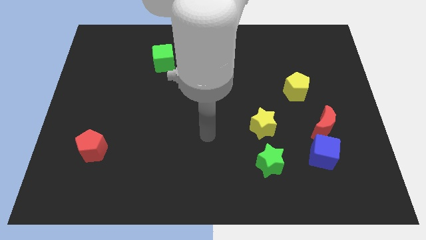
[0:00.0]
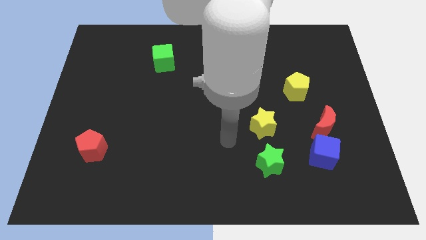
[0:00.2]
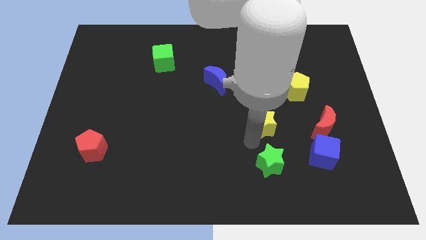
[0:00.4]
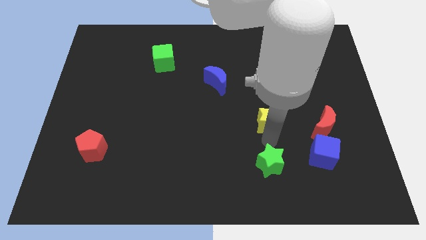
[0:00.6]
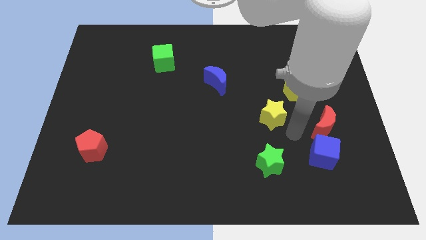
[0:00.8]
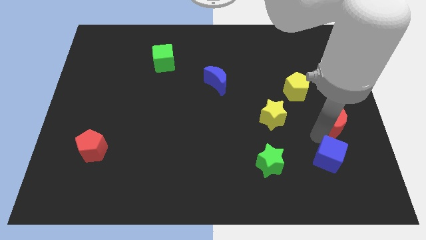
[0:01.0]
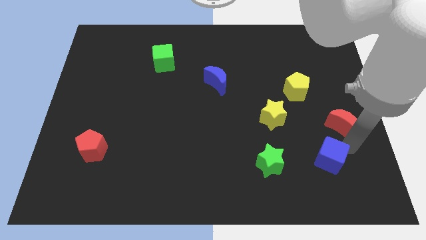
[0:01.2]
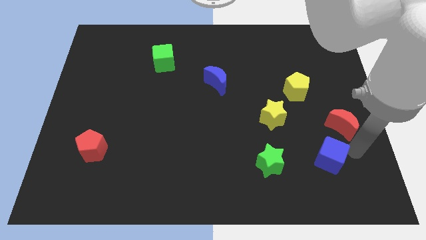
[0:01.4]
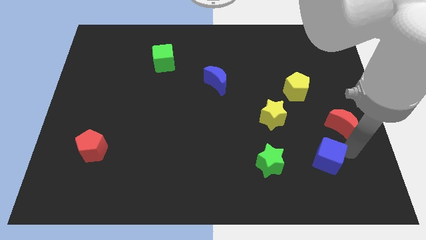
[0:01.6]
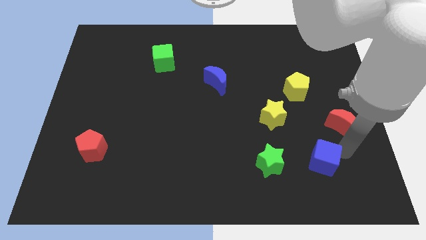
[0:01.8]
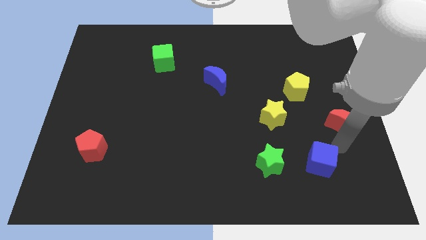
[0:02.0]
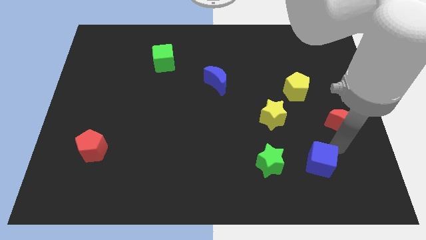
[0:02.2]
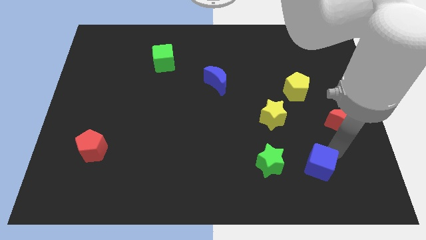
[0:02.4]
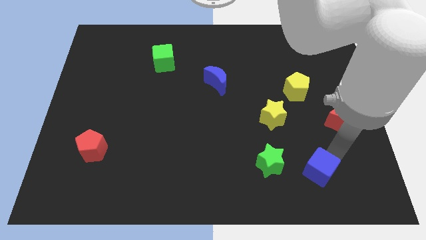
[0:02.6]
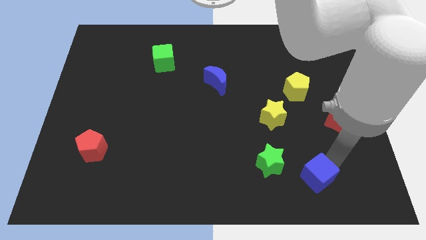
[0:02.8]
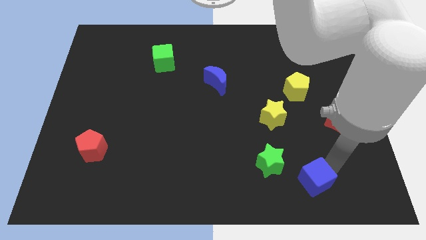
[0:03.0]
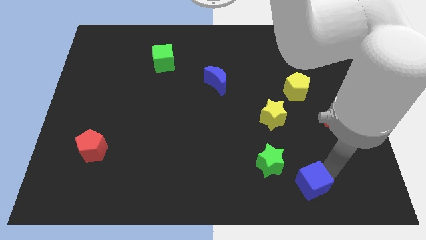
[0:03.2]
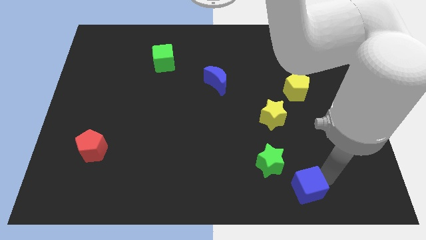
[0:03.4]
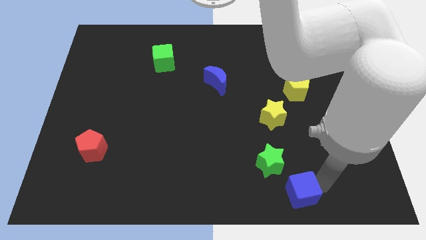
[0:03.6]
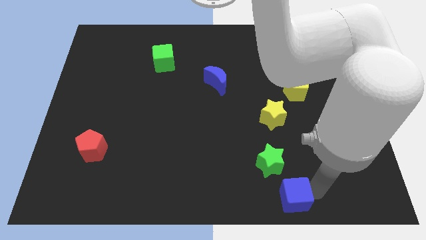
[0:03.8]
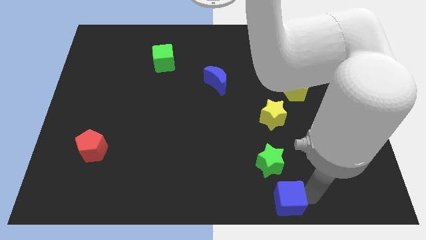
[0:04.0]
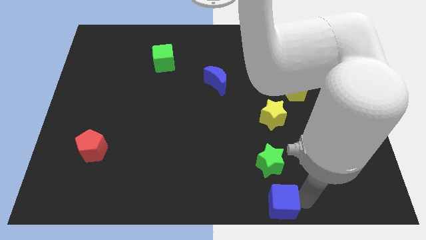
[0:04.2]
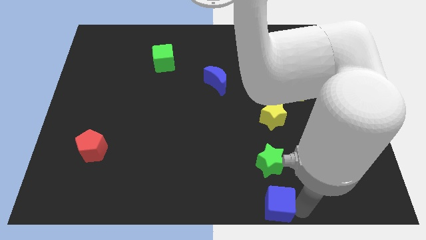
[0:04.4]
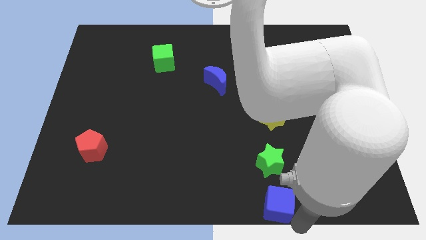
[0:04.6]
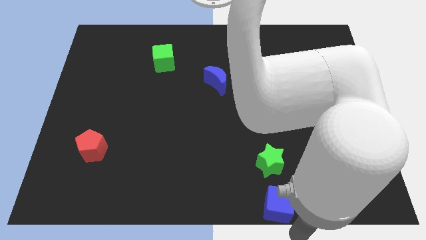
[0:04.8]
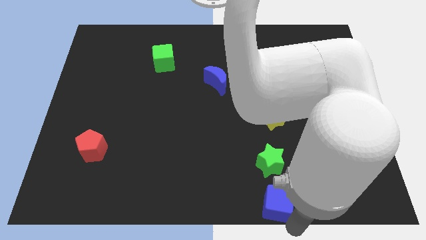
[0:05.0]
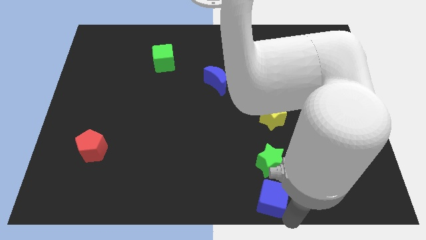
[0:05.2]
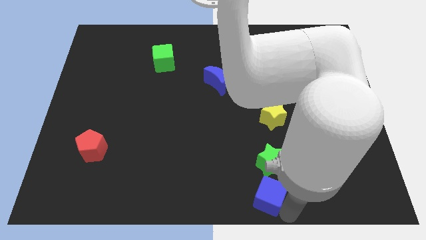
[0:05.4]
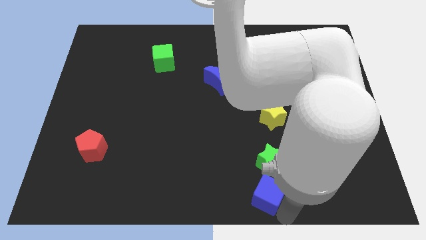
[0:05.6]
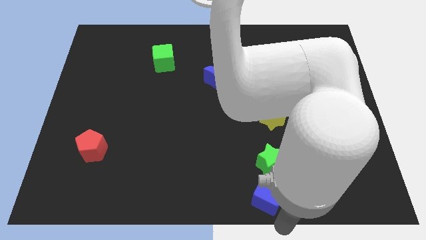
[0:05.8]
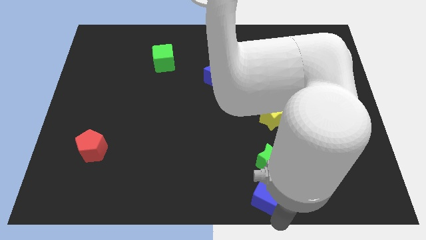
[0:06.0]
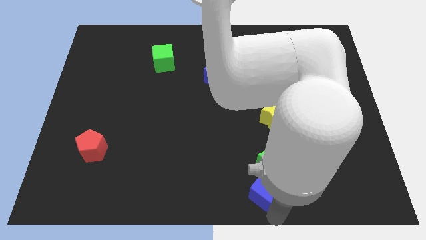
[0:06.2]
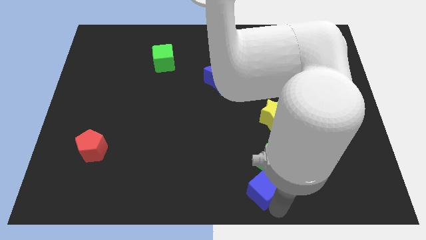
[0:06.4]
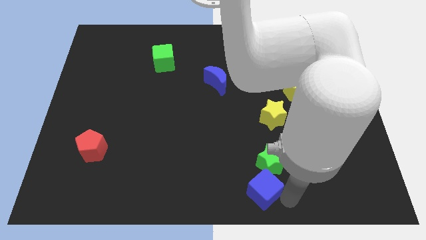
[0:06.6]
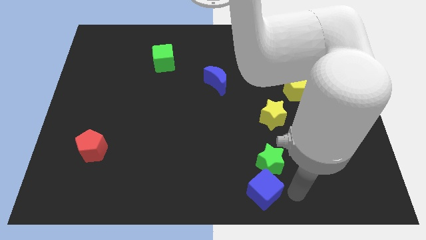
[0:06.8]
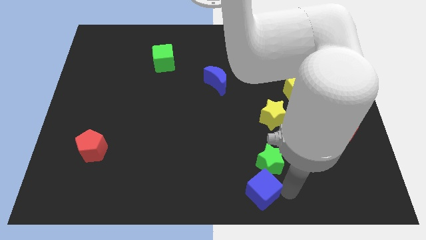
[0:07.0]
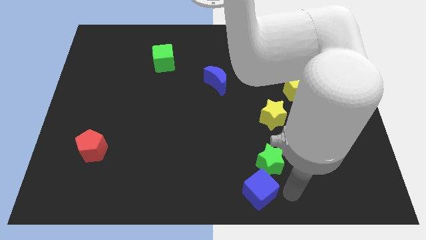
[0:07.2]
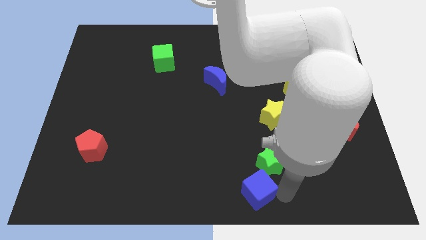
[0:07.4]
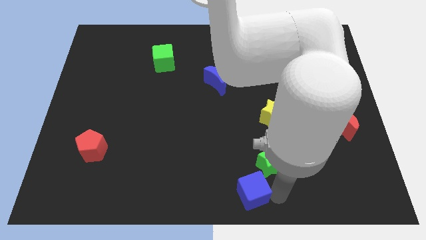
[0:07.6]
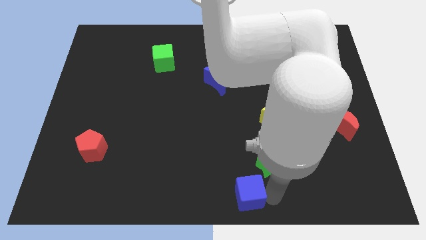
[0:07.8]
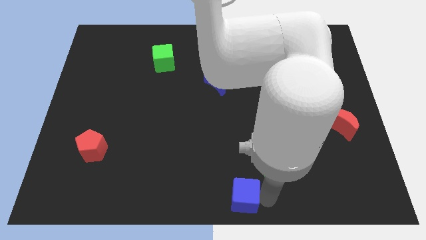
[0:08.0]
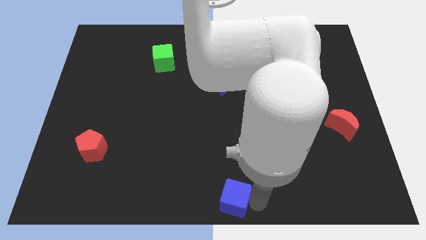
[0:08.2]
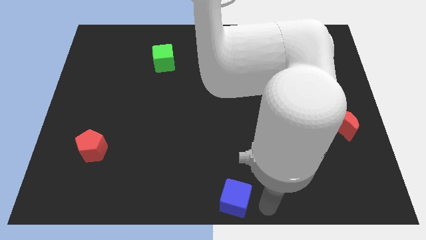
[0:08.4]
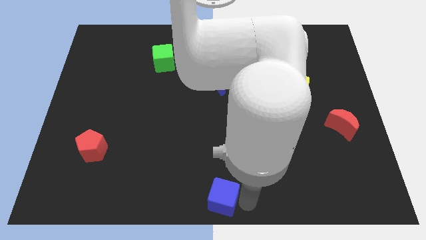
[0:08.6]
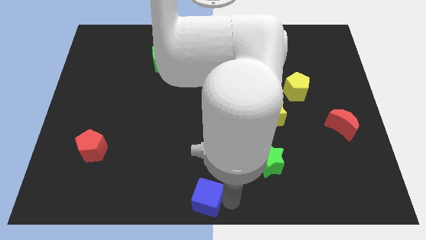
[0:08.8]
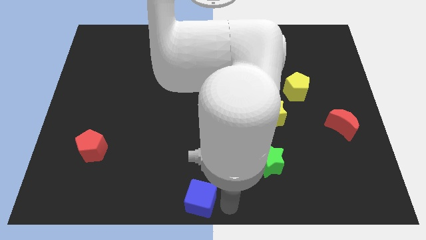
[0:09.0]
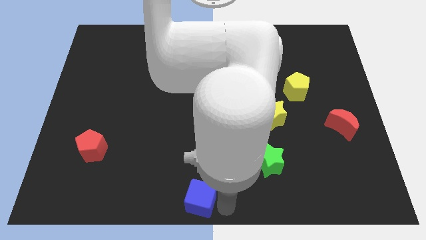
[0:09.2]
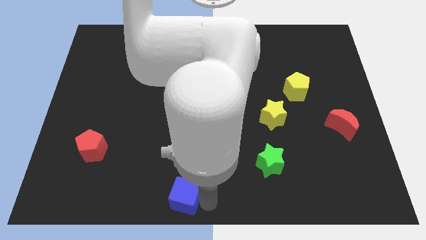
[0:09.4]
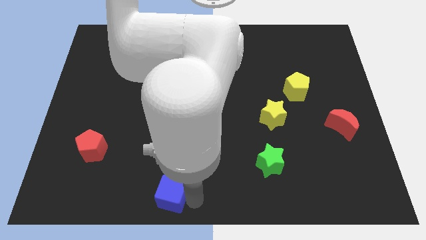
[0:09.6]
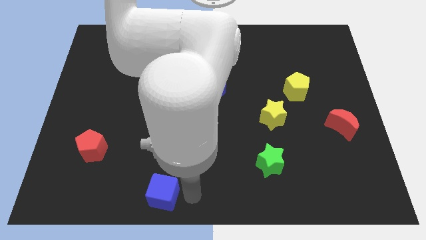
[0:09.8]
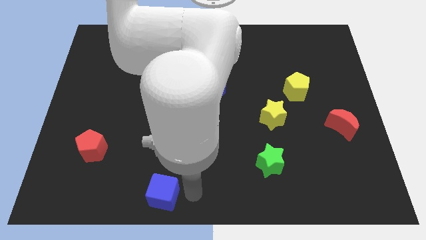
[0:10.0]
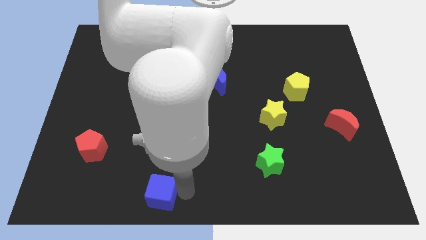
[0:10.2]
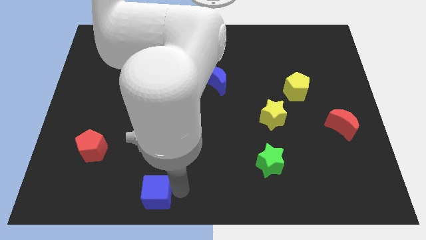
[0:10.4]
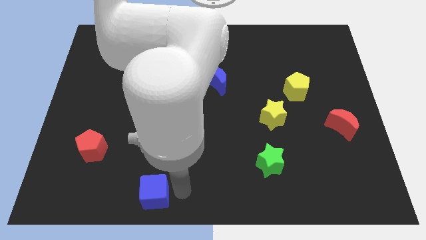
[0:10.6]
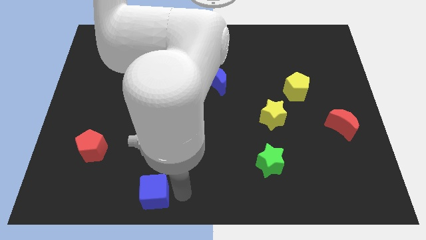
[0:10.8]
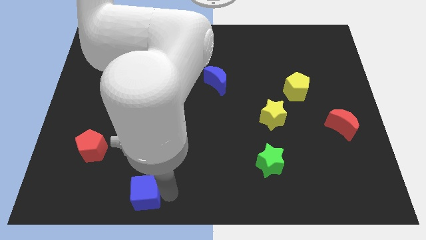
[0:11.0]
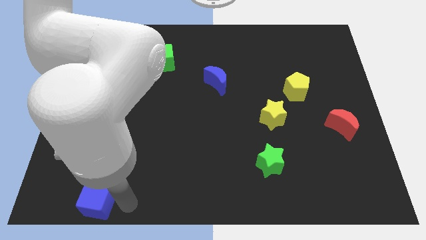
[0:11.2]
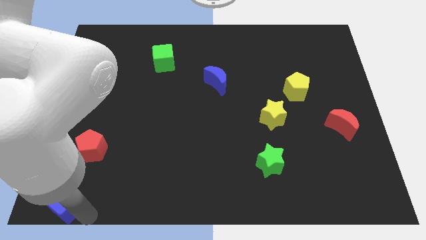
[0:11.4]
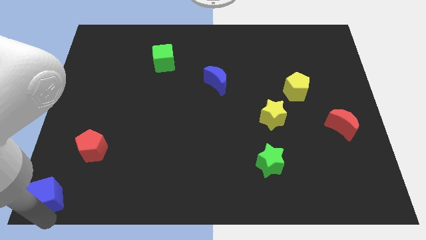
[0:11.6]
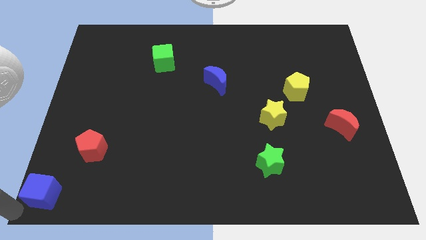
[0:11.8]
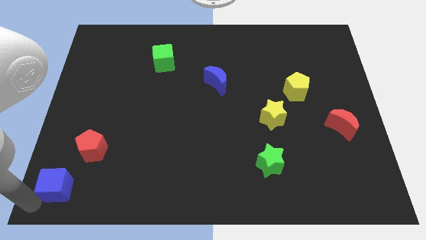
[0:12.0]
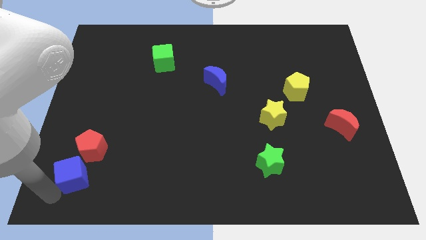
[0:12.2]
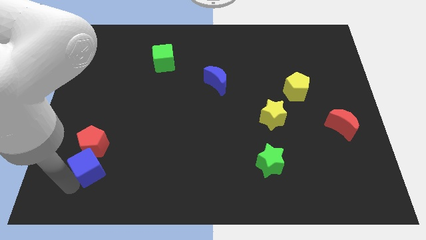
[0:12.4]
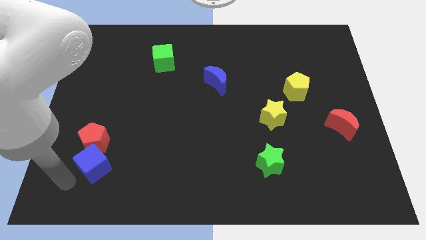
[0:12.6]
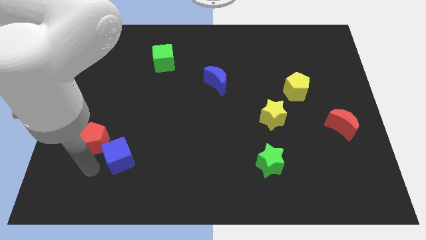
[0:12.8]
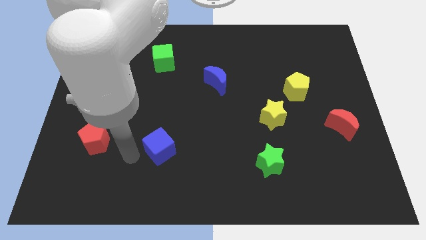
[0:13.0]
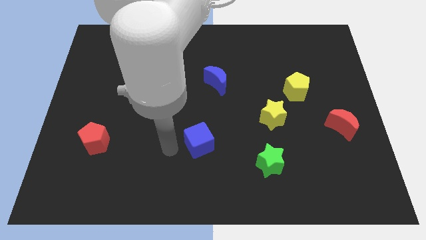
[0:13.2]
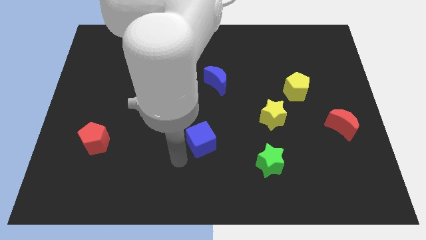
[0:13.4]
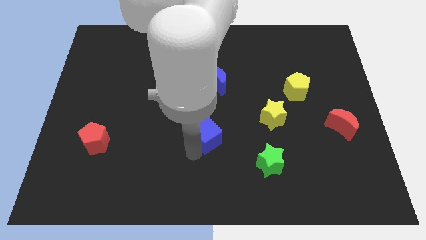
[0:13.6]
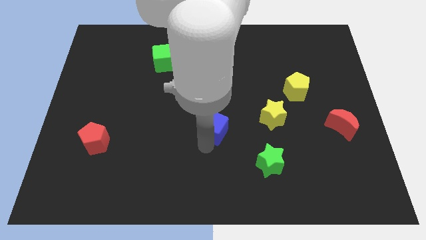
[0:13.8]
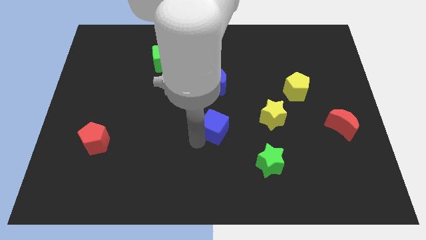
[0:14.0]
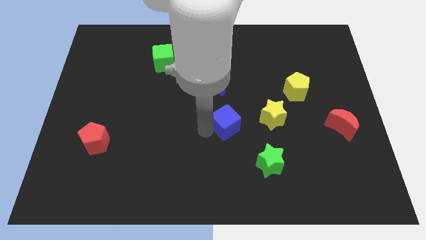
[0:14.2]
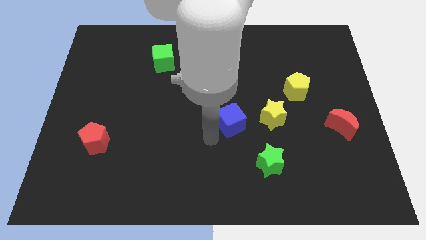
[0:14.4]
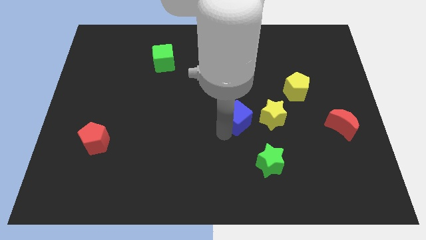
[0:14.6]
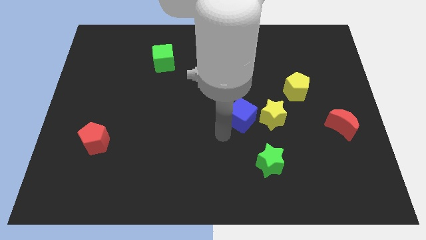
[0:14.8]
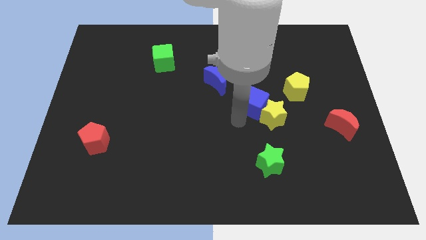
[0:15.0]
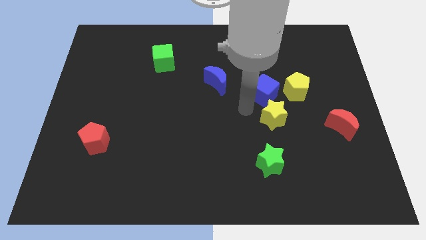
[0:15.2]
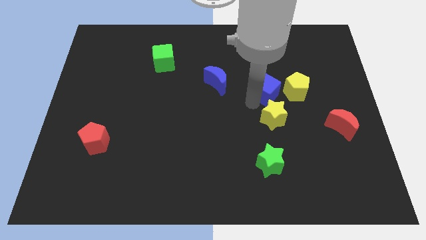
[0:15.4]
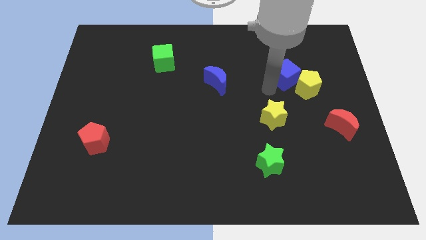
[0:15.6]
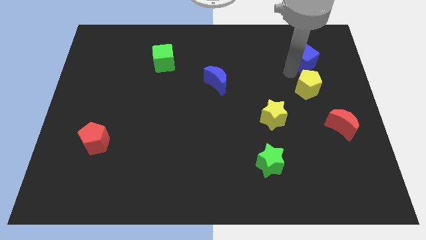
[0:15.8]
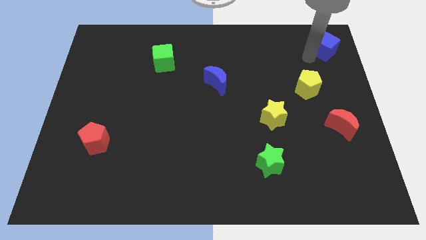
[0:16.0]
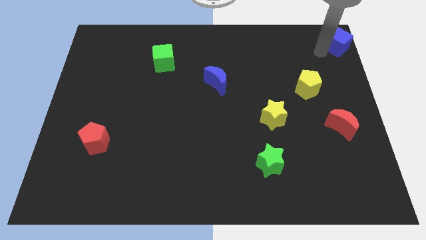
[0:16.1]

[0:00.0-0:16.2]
slide the blue cube to the upper right corner
